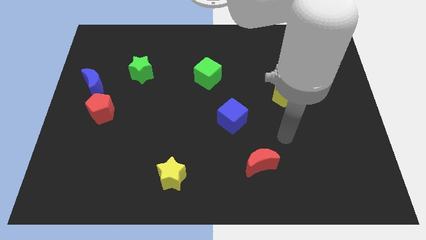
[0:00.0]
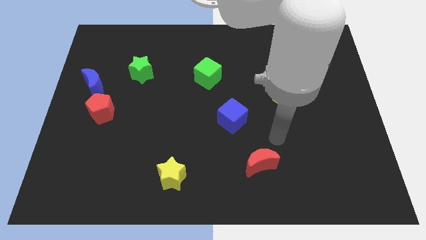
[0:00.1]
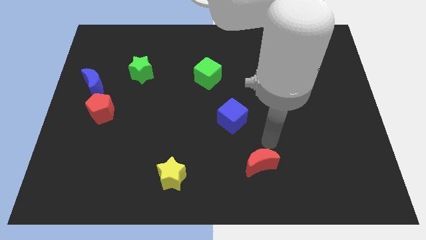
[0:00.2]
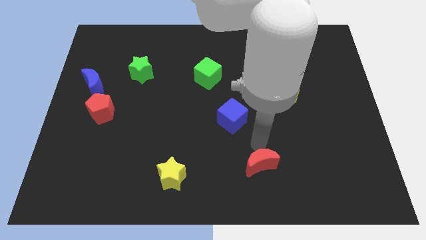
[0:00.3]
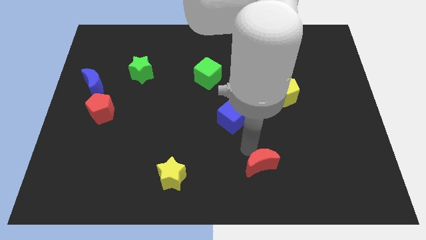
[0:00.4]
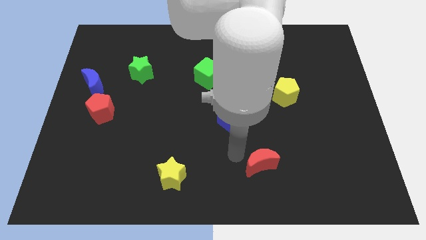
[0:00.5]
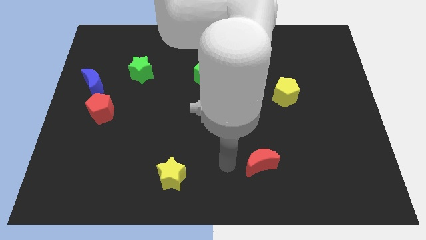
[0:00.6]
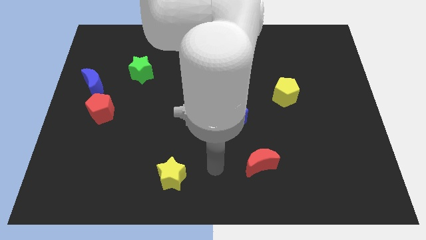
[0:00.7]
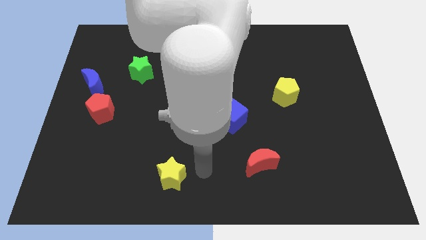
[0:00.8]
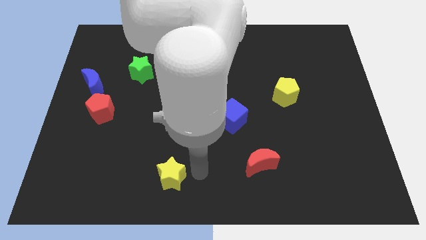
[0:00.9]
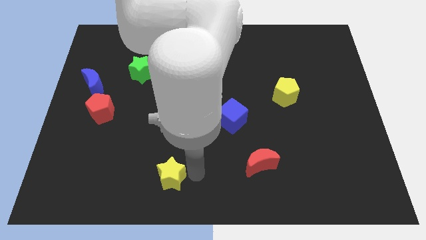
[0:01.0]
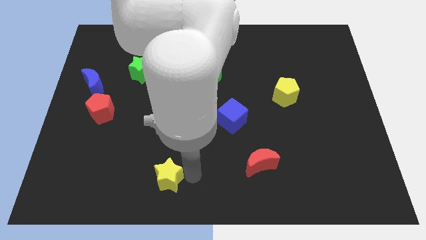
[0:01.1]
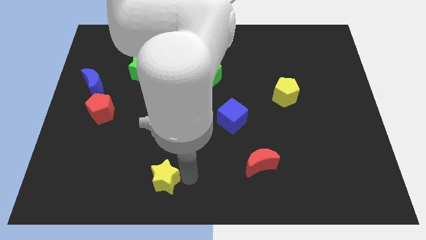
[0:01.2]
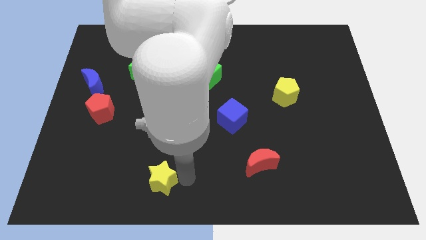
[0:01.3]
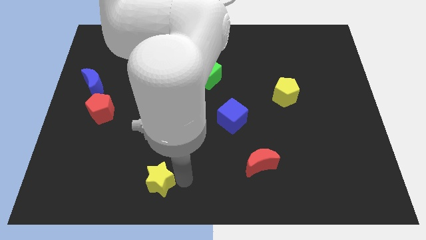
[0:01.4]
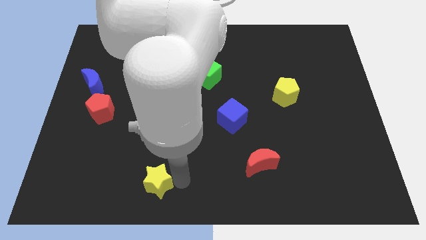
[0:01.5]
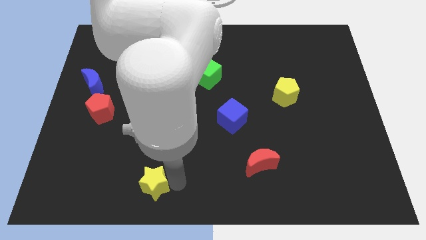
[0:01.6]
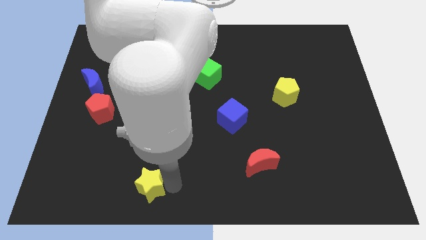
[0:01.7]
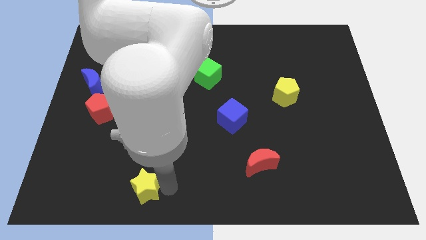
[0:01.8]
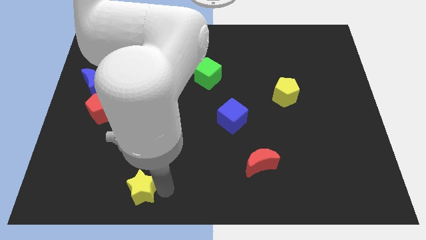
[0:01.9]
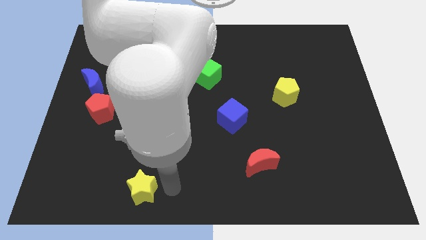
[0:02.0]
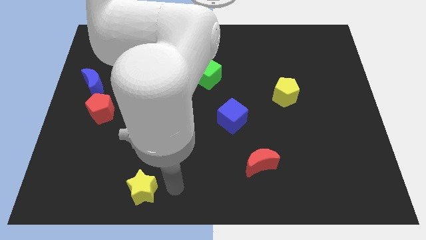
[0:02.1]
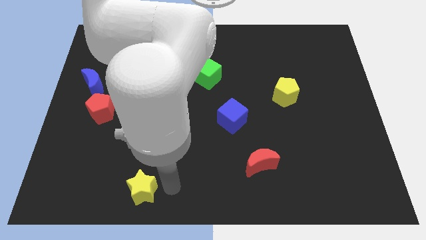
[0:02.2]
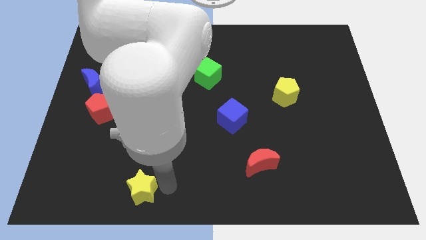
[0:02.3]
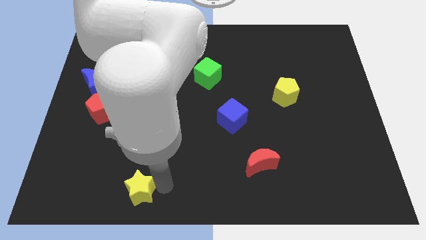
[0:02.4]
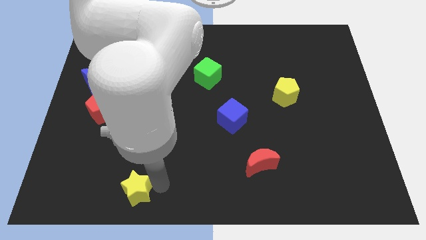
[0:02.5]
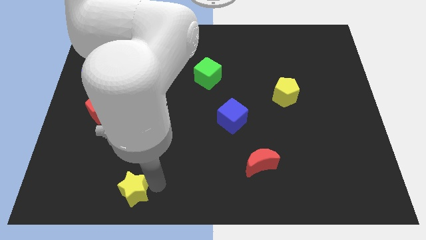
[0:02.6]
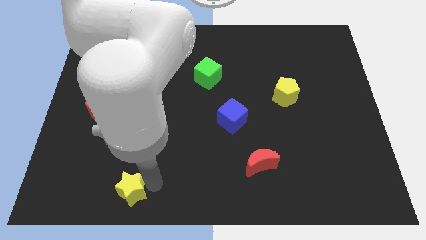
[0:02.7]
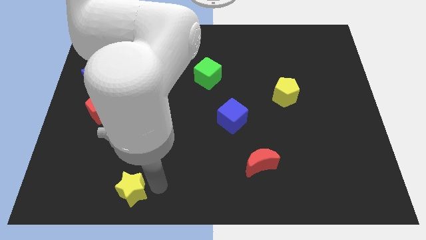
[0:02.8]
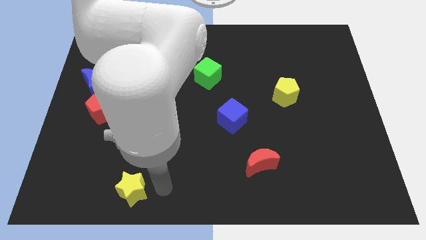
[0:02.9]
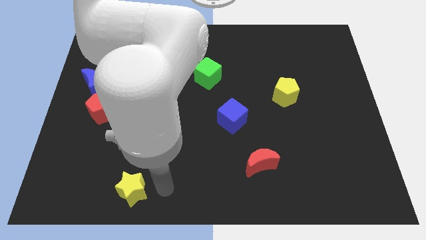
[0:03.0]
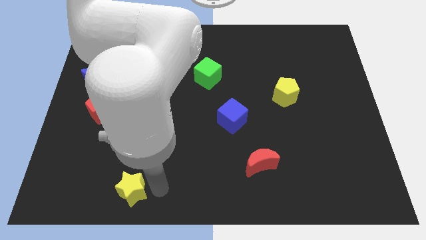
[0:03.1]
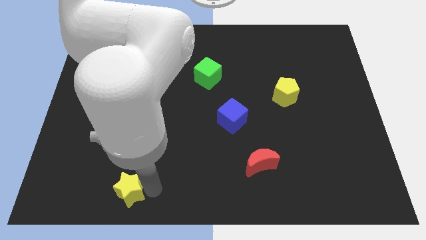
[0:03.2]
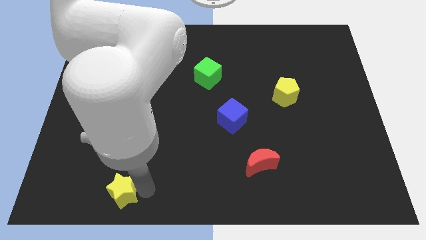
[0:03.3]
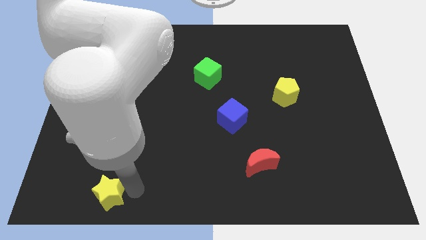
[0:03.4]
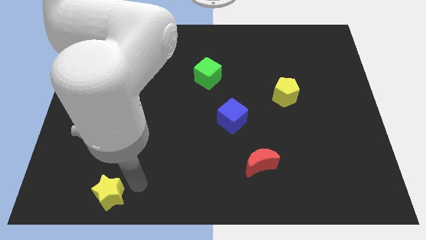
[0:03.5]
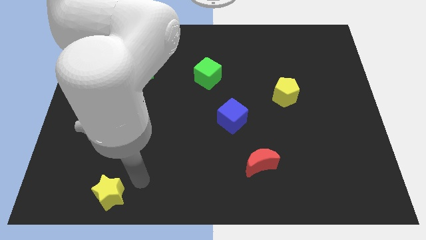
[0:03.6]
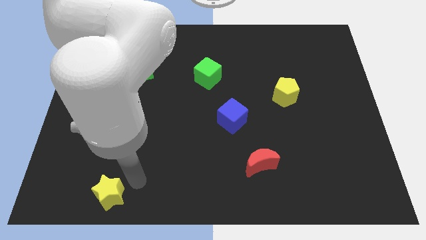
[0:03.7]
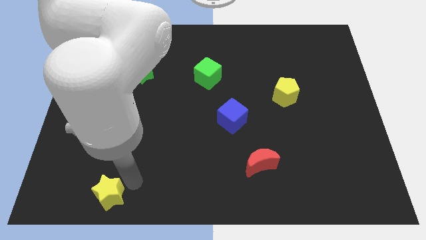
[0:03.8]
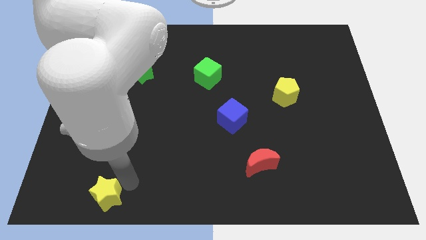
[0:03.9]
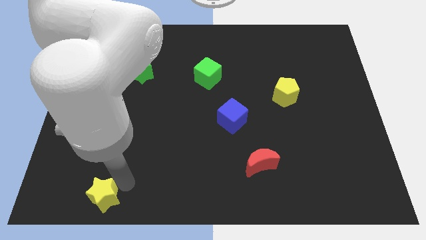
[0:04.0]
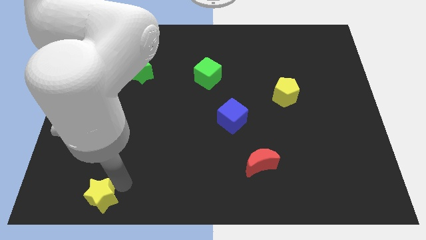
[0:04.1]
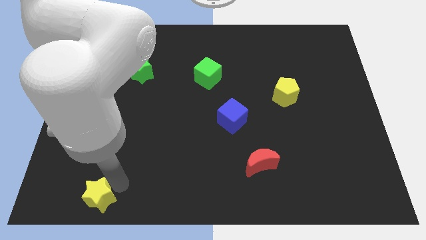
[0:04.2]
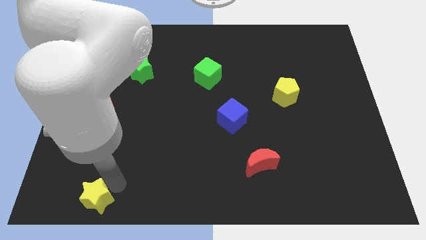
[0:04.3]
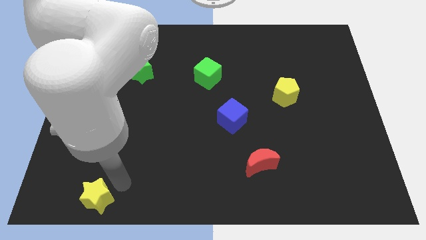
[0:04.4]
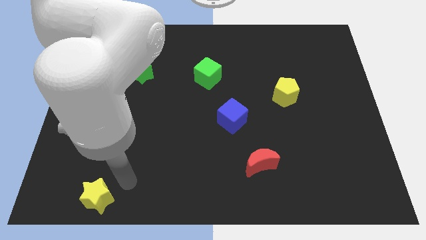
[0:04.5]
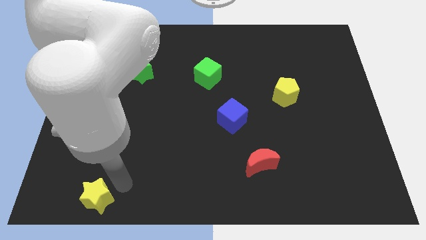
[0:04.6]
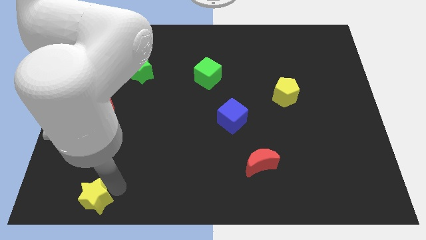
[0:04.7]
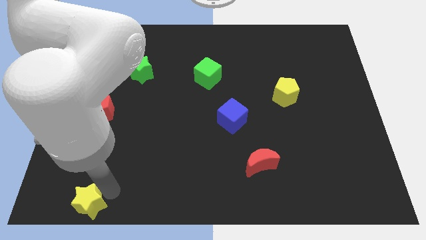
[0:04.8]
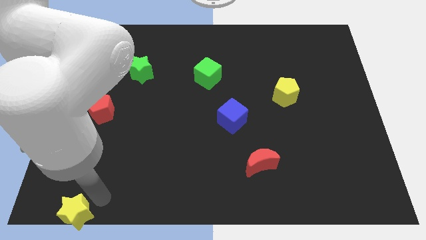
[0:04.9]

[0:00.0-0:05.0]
move the yellow star to the bottom left

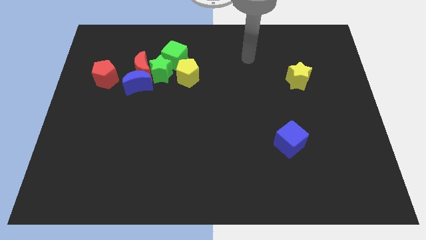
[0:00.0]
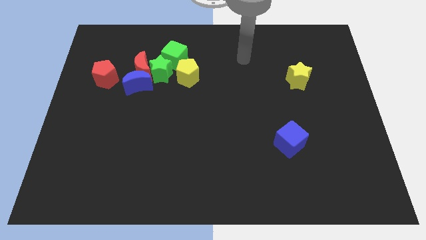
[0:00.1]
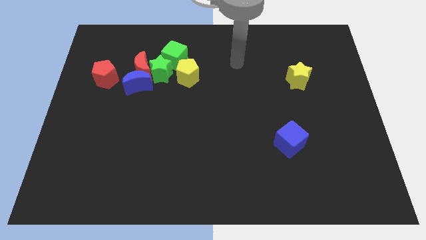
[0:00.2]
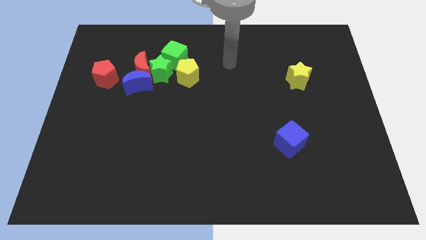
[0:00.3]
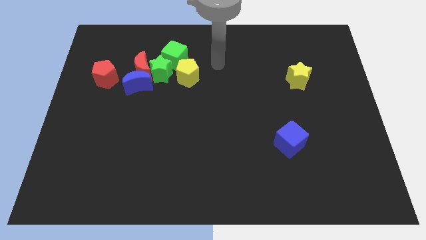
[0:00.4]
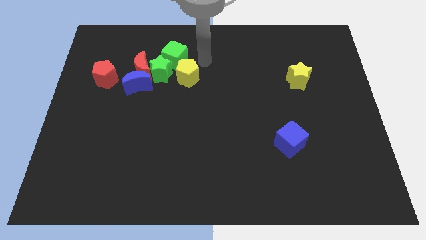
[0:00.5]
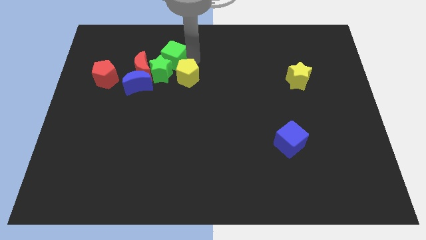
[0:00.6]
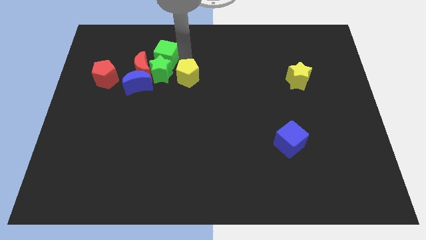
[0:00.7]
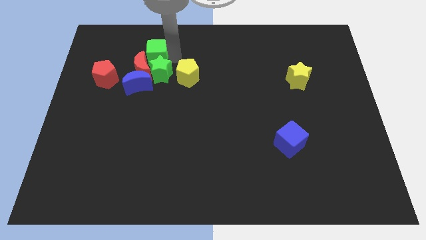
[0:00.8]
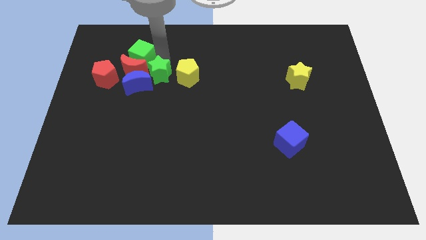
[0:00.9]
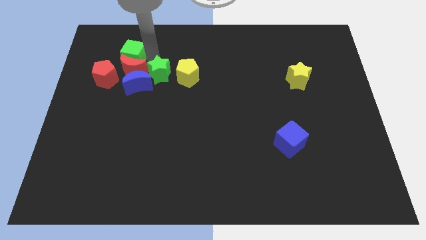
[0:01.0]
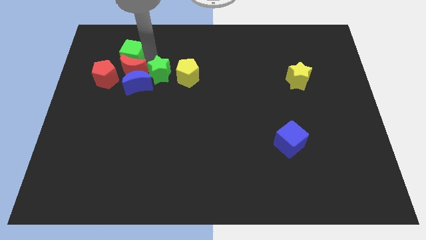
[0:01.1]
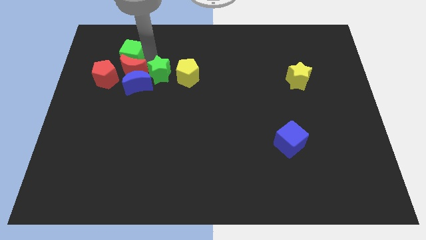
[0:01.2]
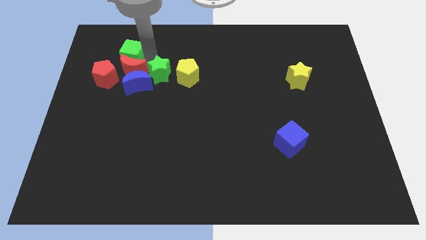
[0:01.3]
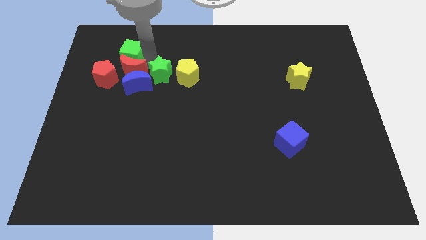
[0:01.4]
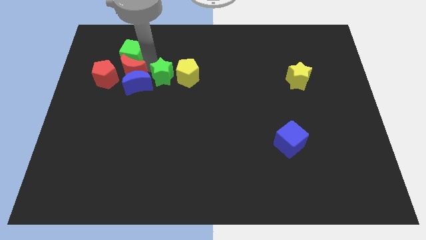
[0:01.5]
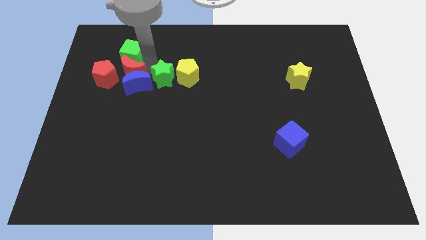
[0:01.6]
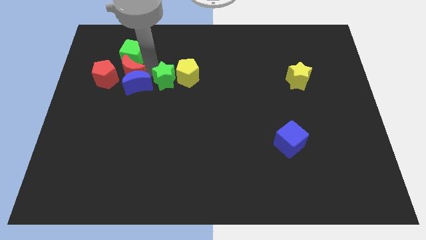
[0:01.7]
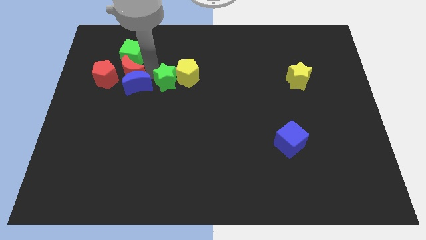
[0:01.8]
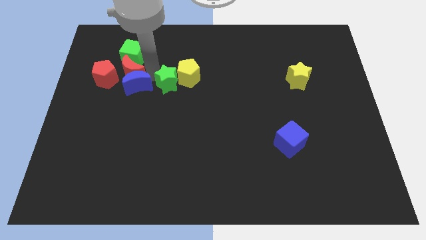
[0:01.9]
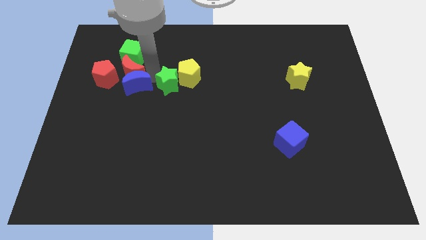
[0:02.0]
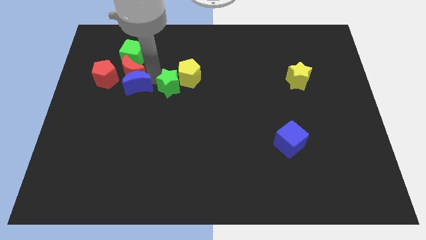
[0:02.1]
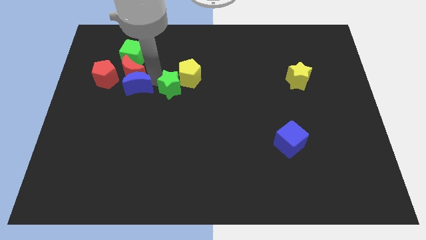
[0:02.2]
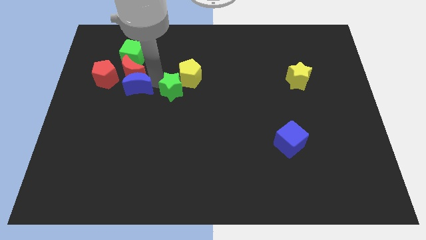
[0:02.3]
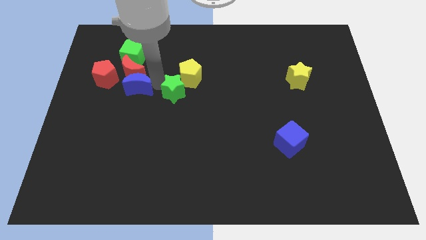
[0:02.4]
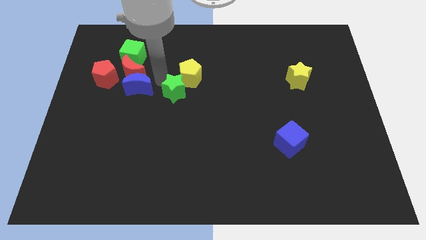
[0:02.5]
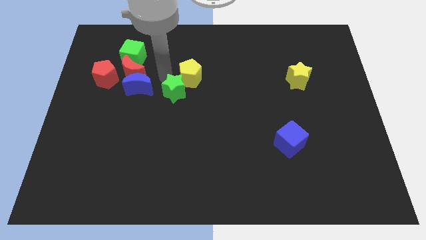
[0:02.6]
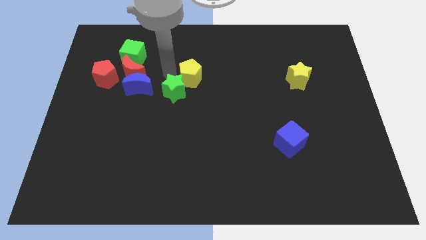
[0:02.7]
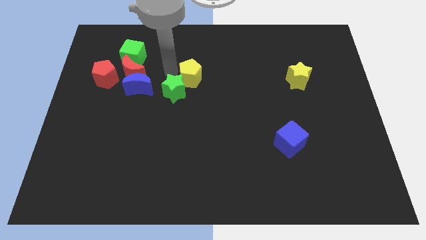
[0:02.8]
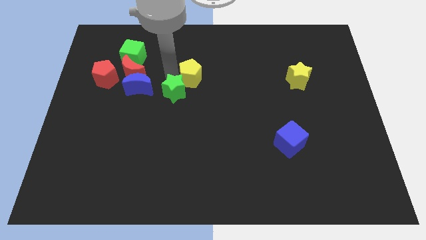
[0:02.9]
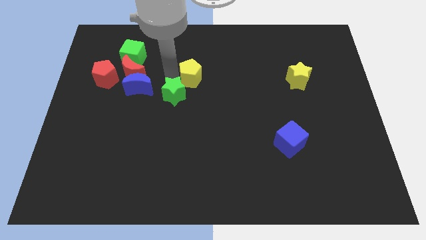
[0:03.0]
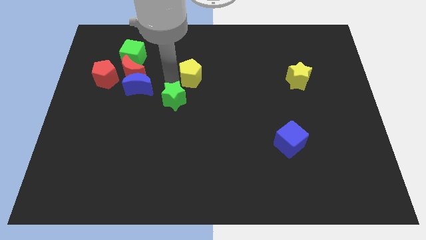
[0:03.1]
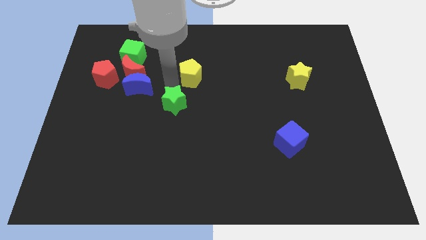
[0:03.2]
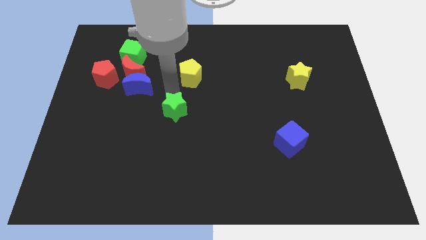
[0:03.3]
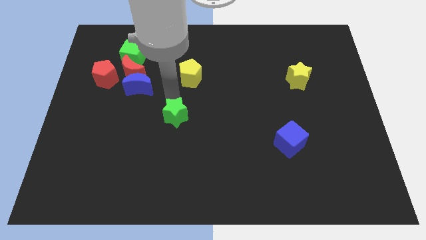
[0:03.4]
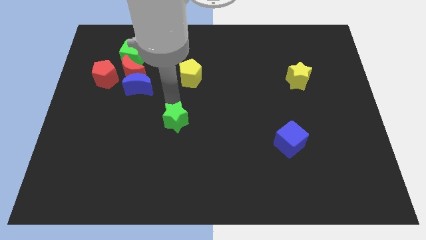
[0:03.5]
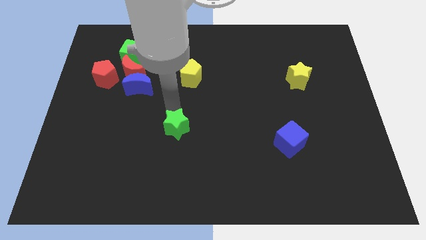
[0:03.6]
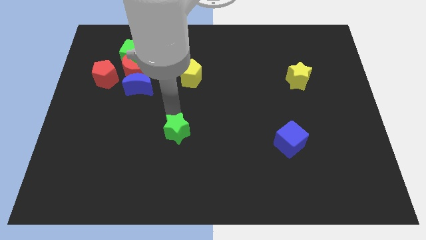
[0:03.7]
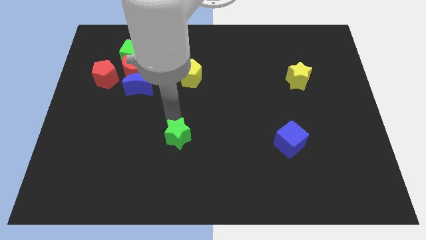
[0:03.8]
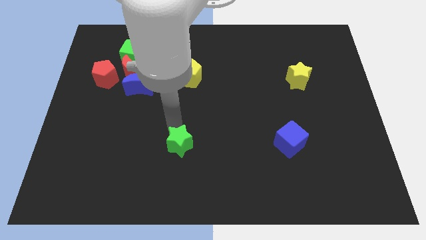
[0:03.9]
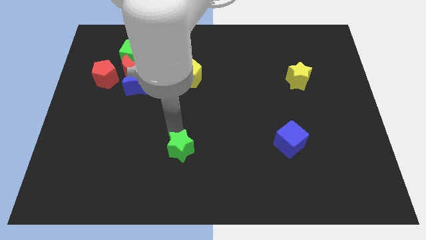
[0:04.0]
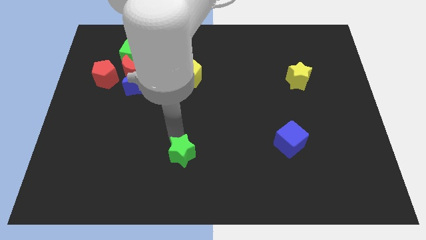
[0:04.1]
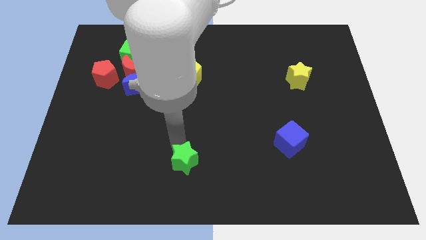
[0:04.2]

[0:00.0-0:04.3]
slide the green star to the bottom
